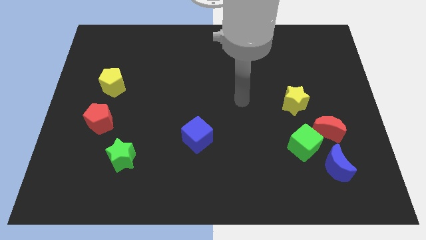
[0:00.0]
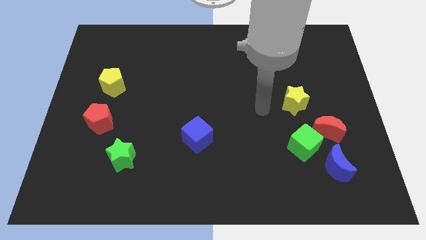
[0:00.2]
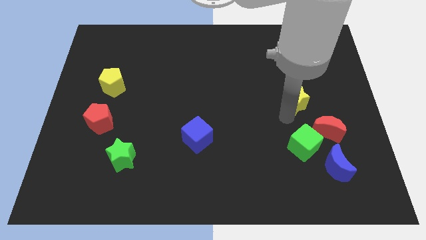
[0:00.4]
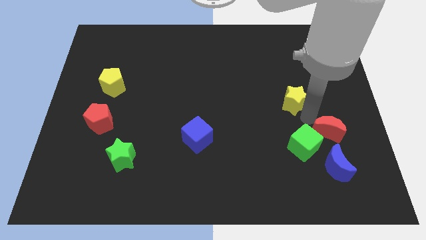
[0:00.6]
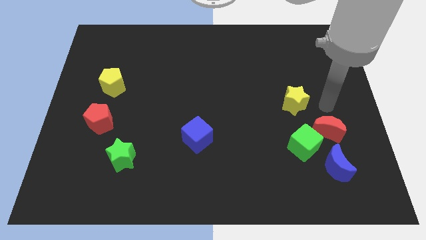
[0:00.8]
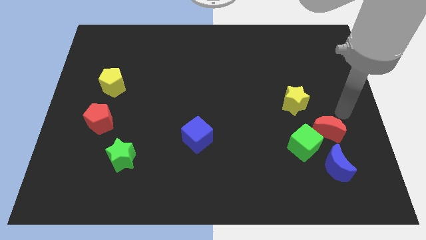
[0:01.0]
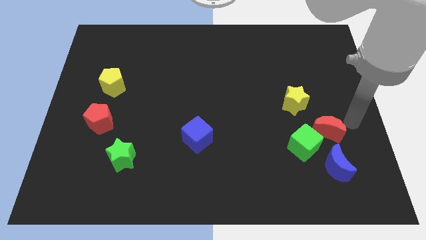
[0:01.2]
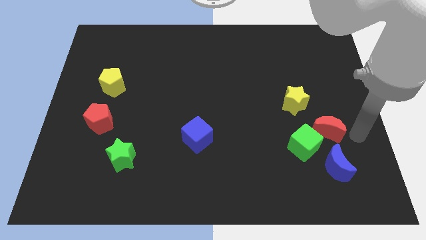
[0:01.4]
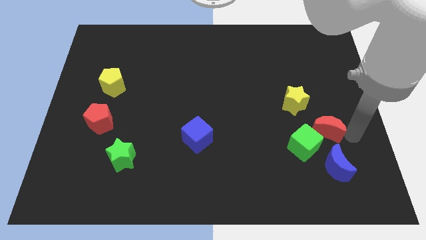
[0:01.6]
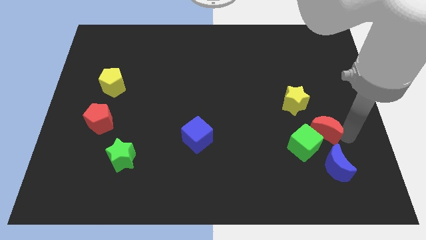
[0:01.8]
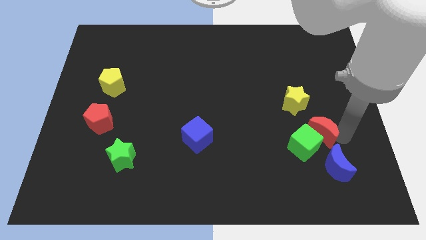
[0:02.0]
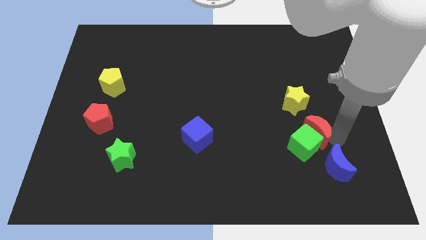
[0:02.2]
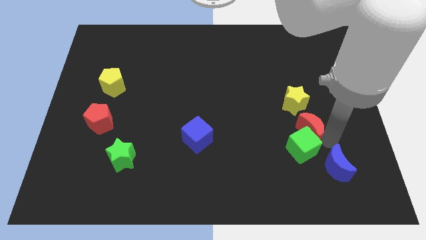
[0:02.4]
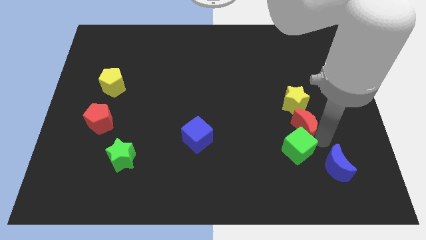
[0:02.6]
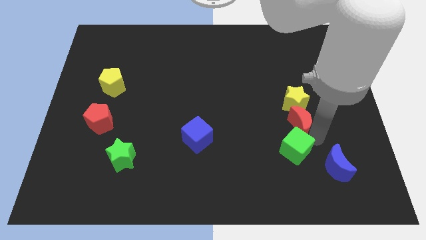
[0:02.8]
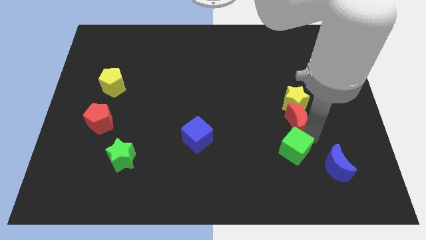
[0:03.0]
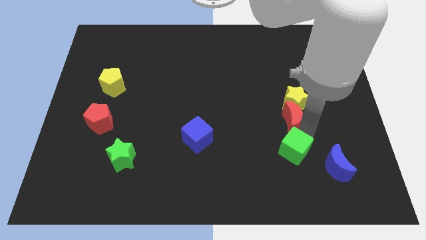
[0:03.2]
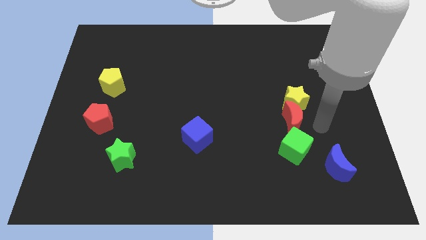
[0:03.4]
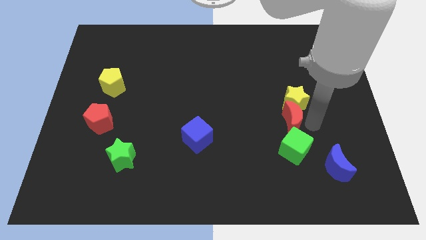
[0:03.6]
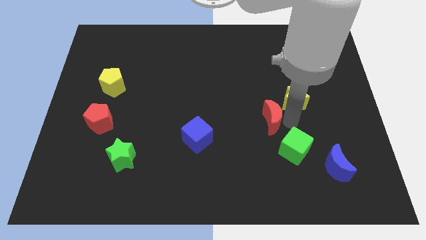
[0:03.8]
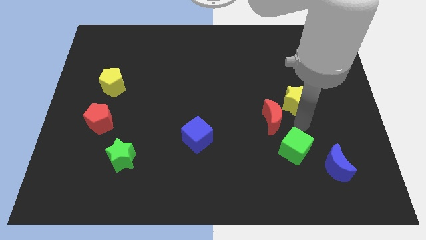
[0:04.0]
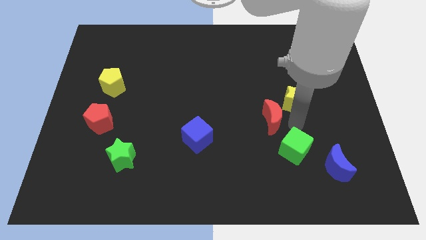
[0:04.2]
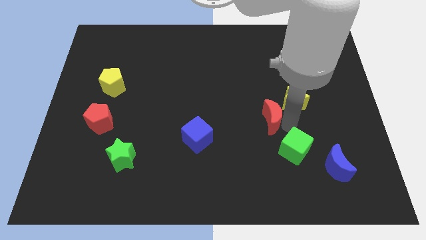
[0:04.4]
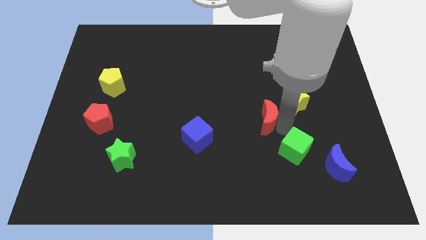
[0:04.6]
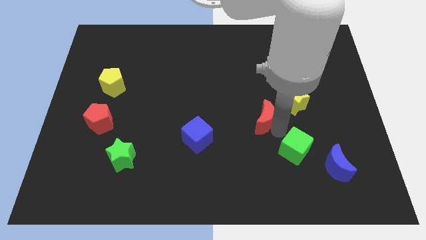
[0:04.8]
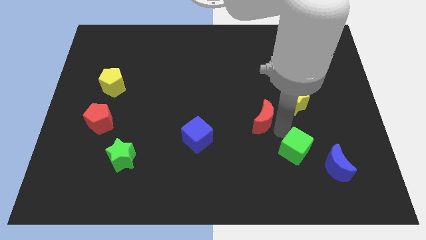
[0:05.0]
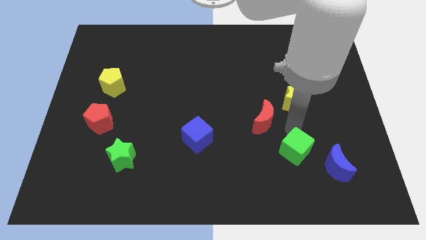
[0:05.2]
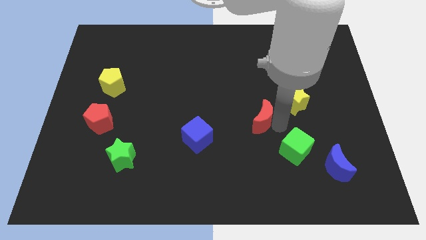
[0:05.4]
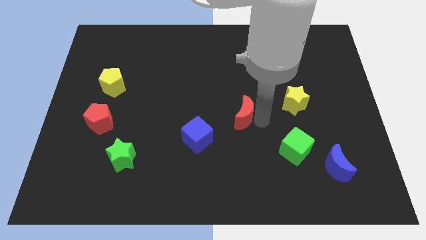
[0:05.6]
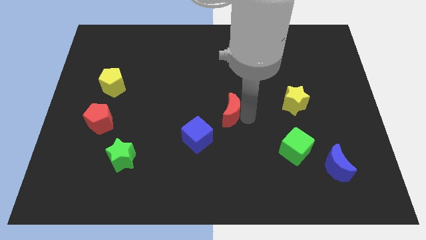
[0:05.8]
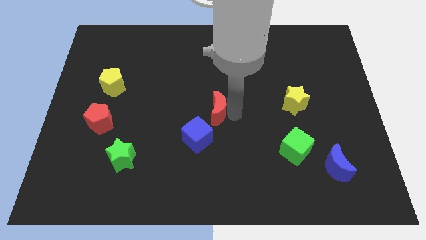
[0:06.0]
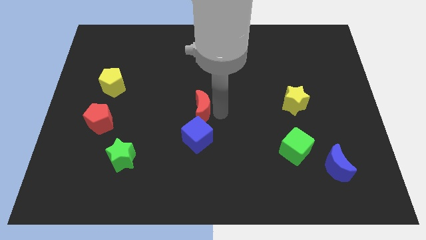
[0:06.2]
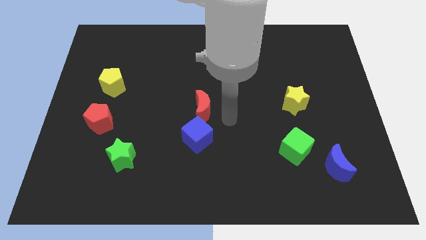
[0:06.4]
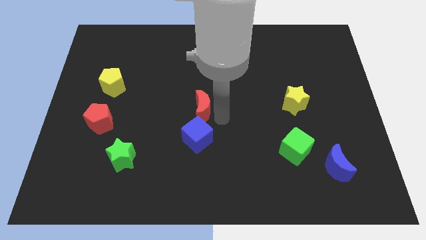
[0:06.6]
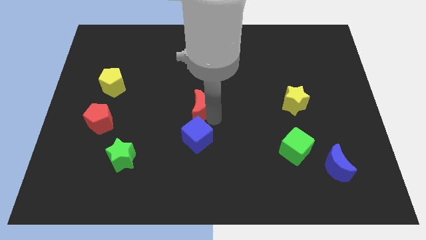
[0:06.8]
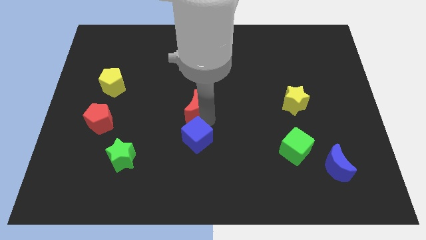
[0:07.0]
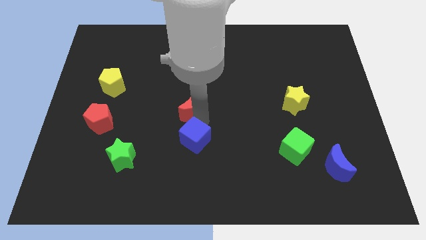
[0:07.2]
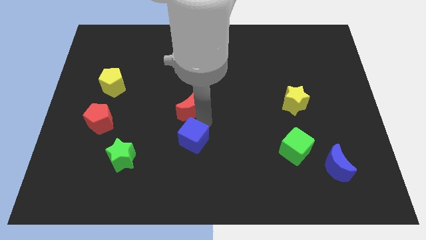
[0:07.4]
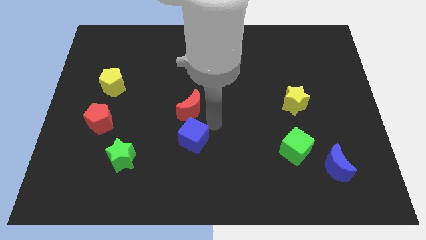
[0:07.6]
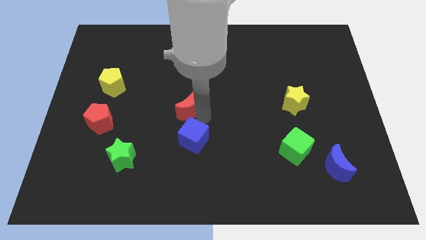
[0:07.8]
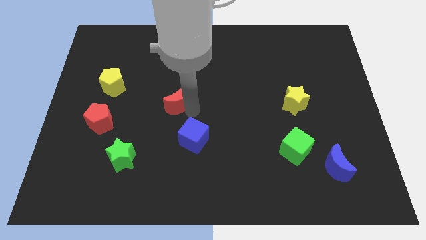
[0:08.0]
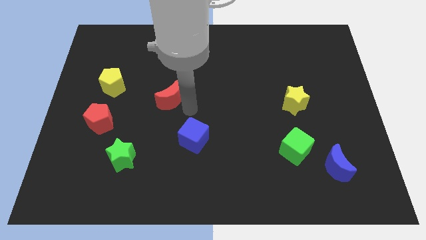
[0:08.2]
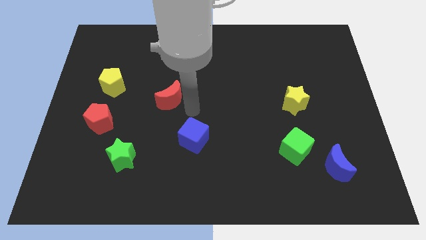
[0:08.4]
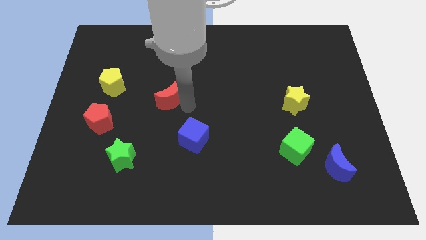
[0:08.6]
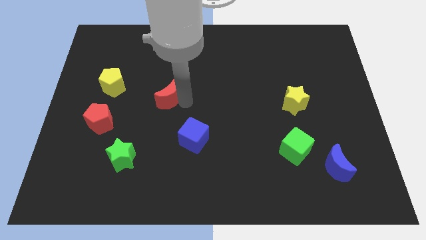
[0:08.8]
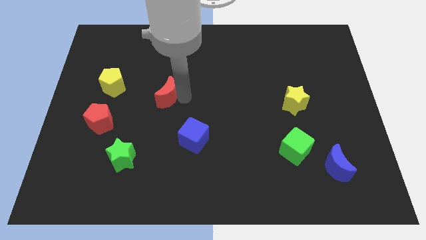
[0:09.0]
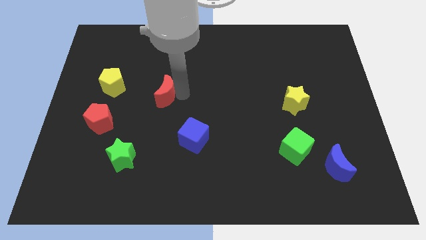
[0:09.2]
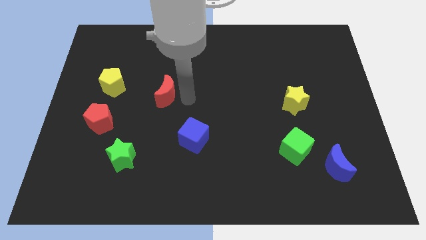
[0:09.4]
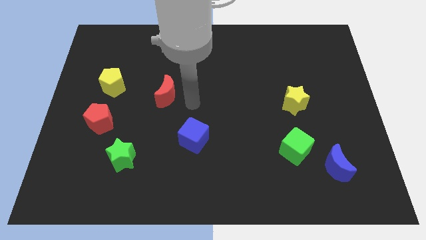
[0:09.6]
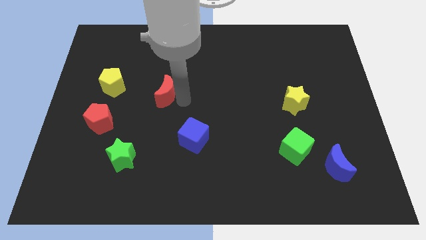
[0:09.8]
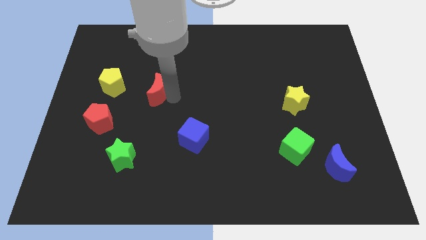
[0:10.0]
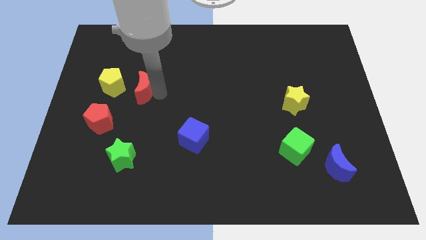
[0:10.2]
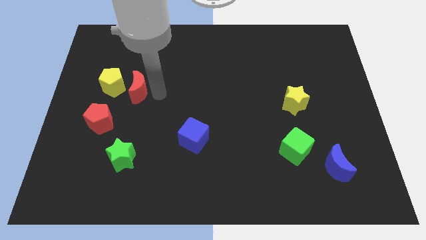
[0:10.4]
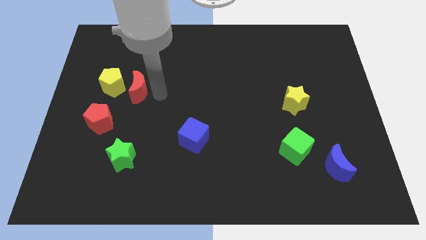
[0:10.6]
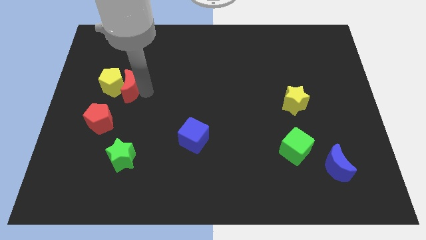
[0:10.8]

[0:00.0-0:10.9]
slide the red moon to the yellow pentagon
